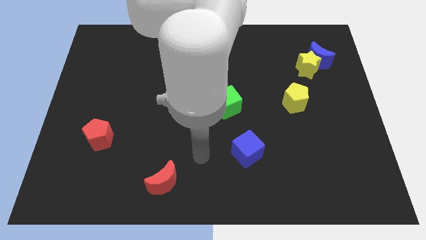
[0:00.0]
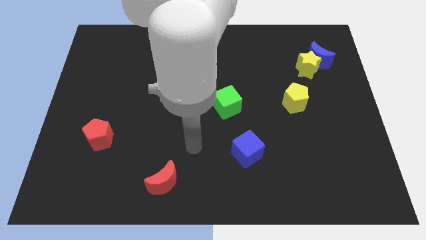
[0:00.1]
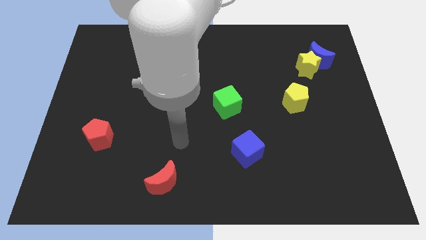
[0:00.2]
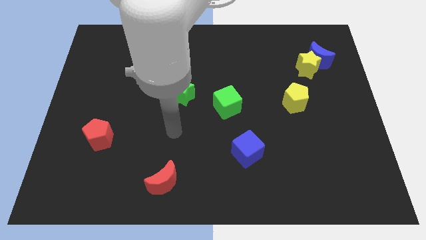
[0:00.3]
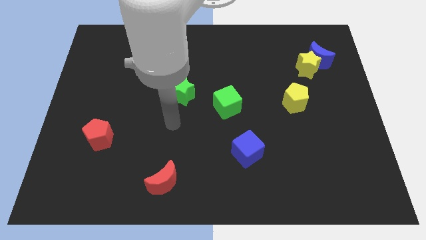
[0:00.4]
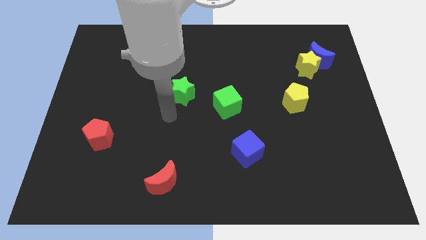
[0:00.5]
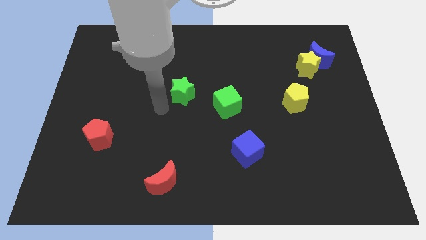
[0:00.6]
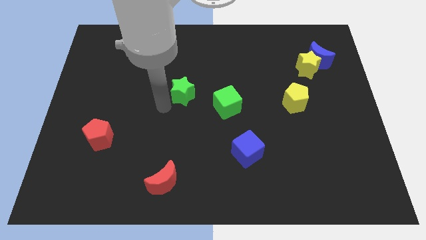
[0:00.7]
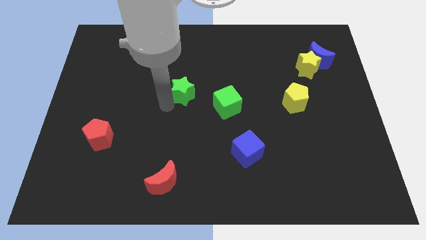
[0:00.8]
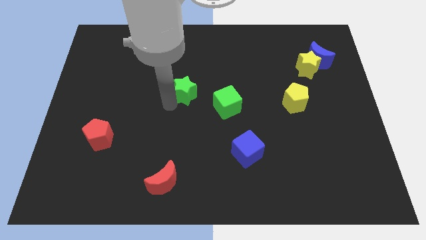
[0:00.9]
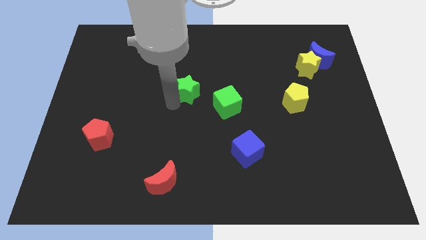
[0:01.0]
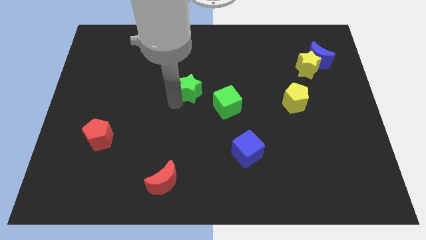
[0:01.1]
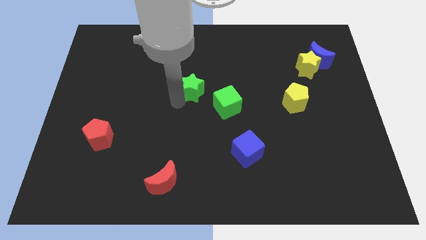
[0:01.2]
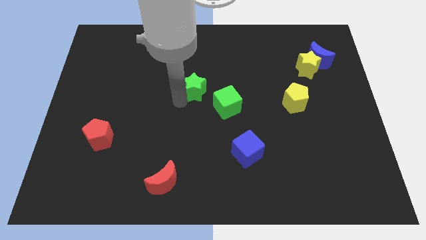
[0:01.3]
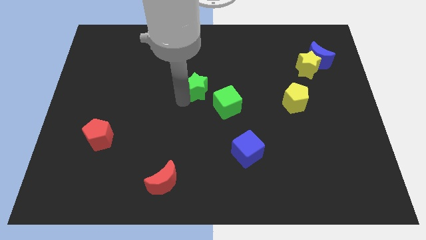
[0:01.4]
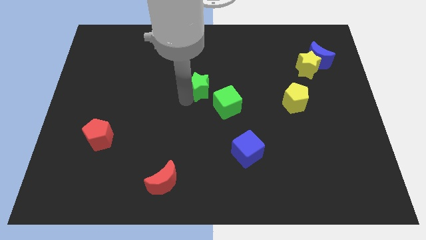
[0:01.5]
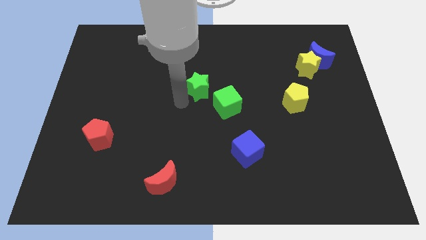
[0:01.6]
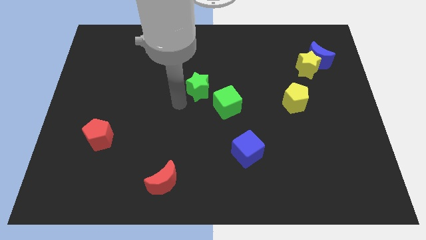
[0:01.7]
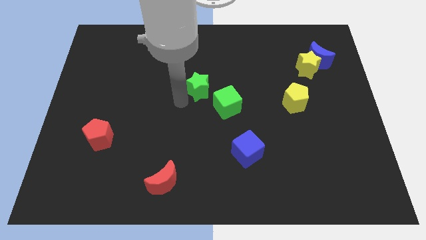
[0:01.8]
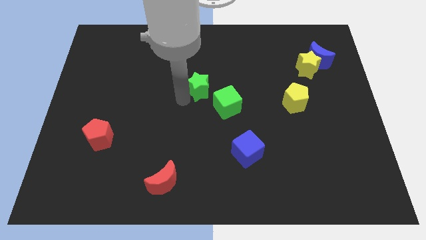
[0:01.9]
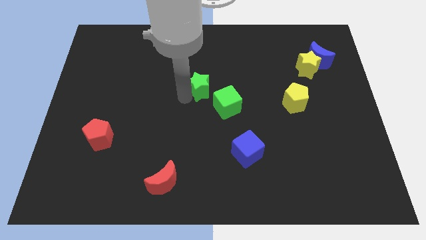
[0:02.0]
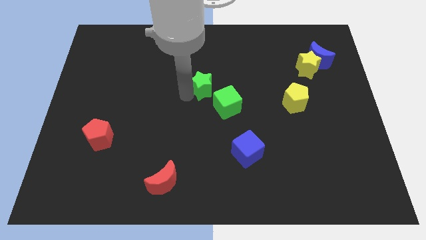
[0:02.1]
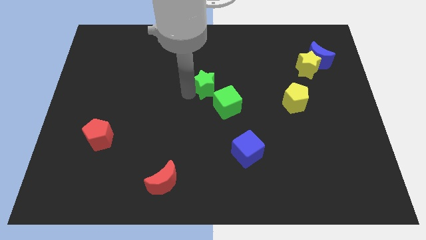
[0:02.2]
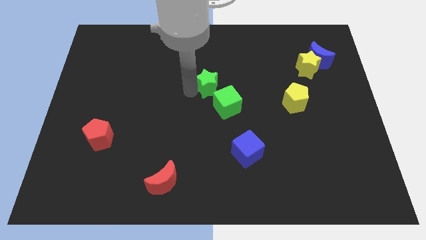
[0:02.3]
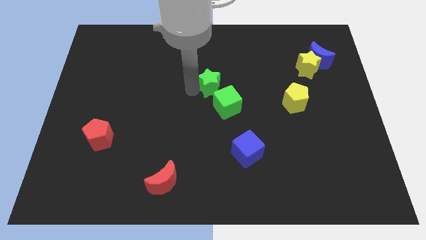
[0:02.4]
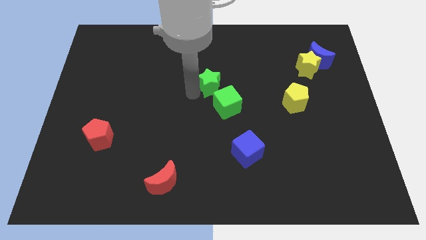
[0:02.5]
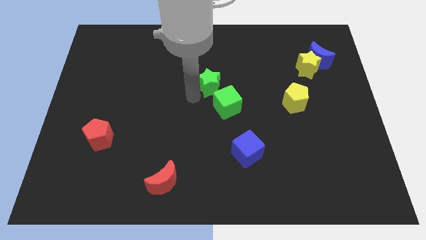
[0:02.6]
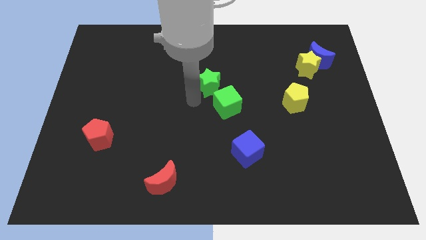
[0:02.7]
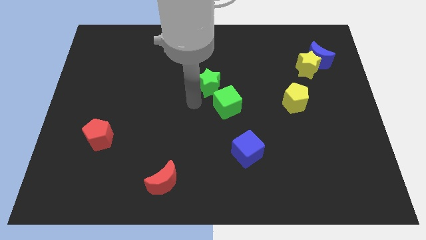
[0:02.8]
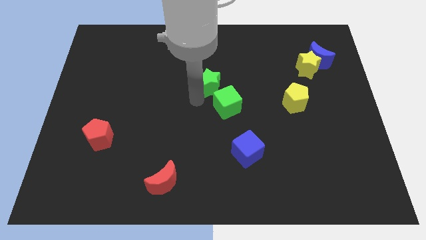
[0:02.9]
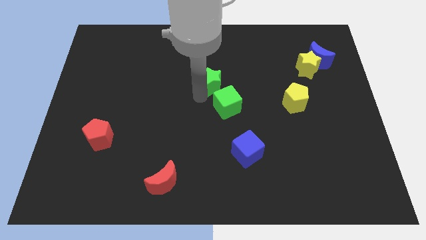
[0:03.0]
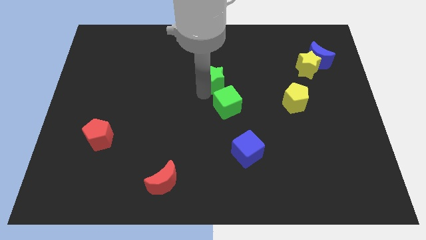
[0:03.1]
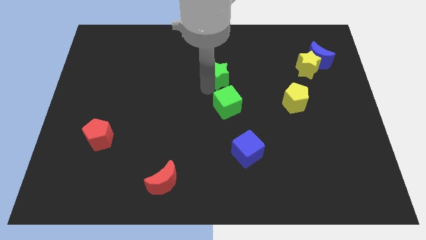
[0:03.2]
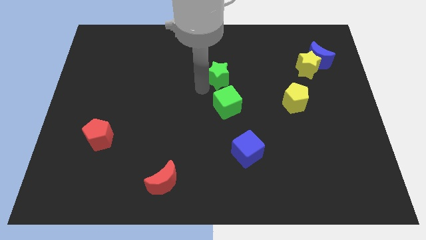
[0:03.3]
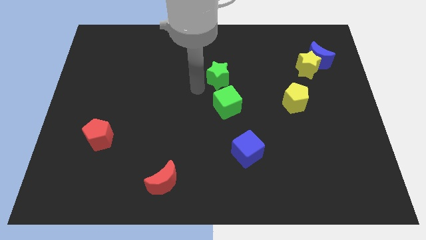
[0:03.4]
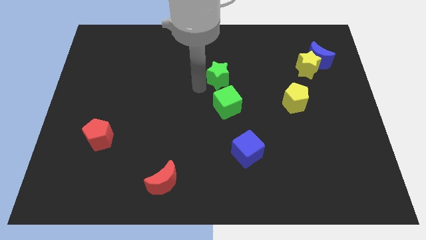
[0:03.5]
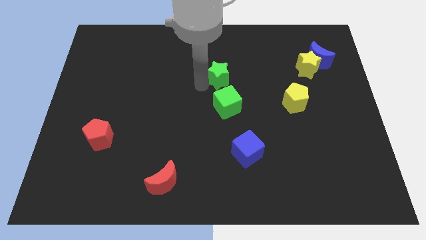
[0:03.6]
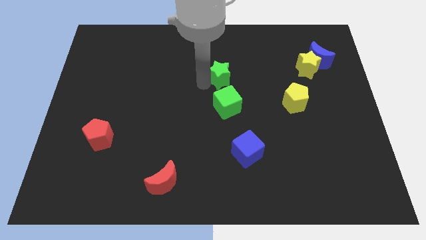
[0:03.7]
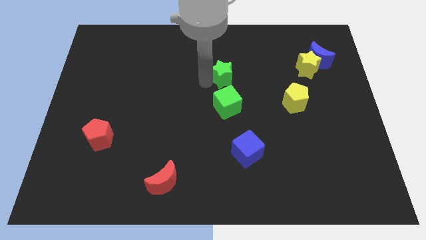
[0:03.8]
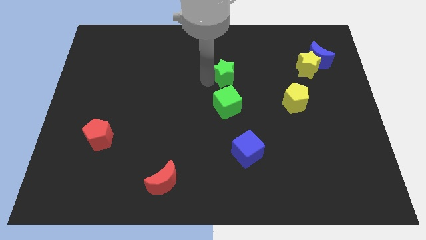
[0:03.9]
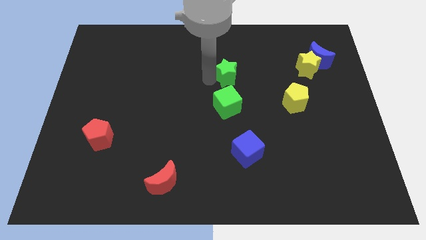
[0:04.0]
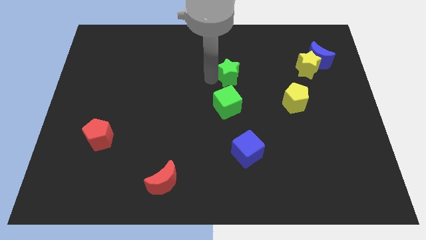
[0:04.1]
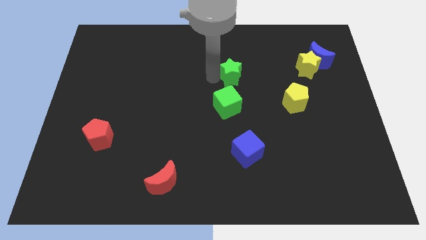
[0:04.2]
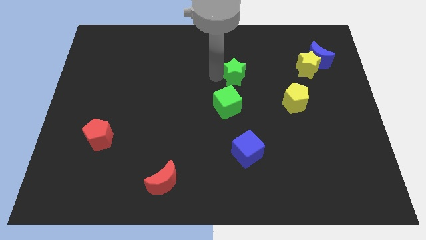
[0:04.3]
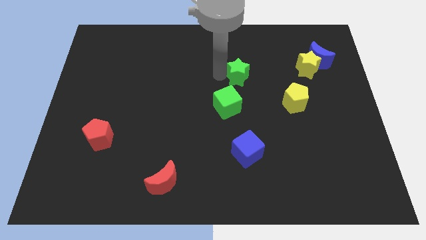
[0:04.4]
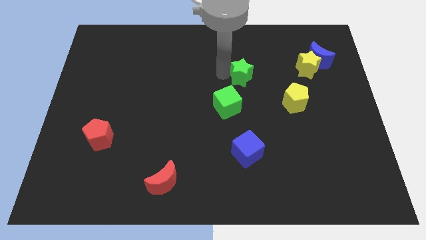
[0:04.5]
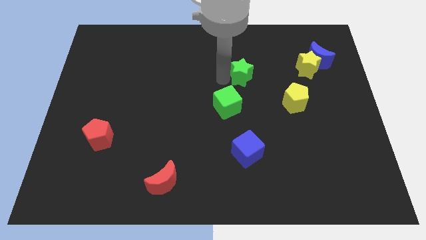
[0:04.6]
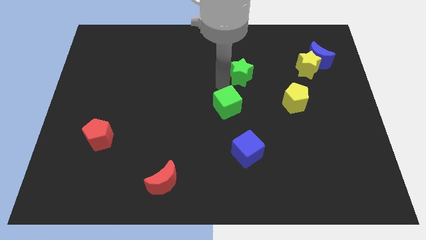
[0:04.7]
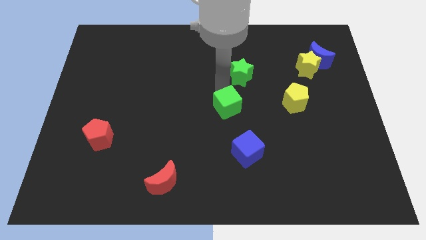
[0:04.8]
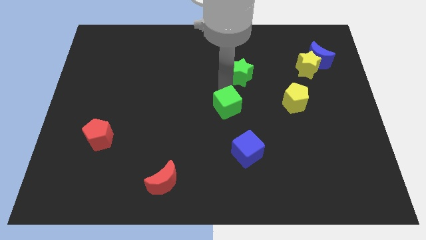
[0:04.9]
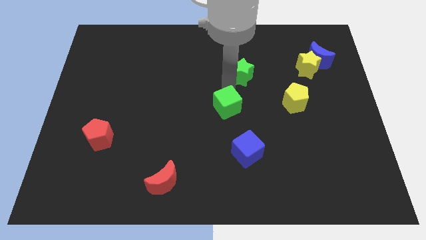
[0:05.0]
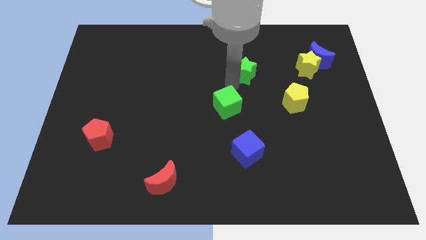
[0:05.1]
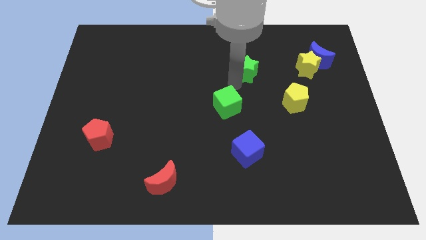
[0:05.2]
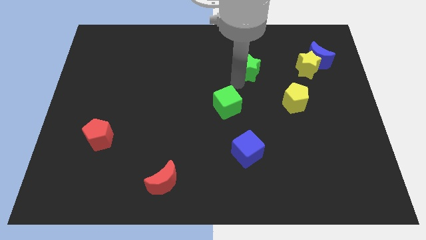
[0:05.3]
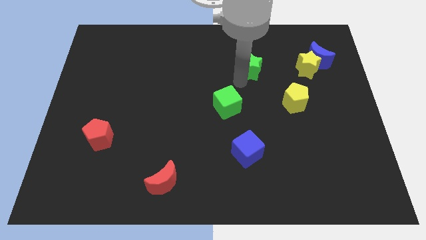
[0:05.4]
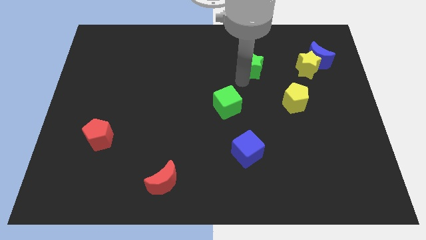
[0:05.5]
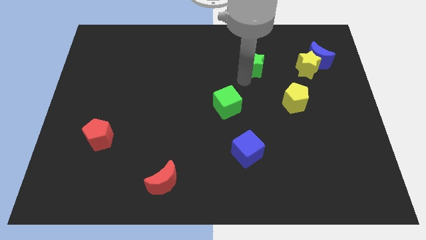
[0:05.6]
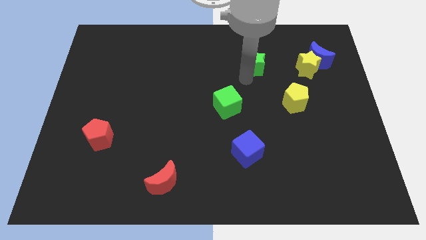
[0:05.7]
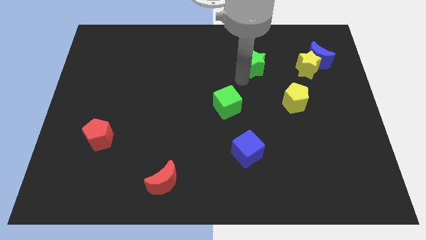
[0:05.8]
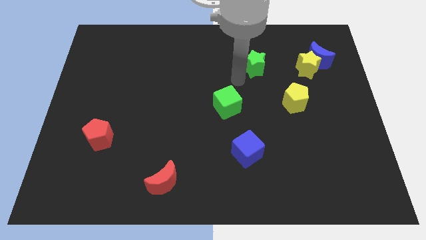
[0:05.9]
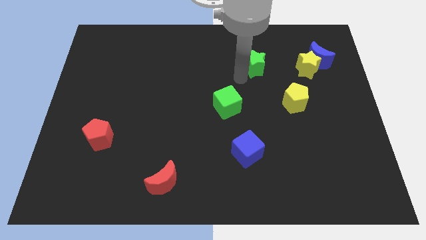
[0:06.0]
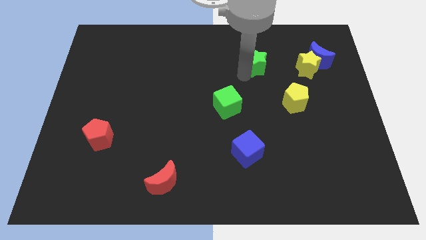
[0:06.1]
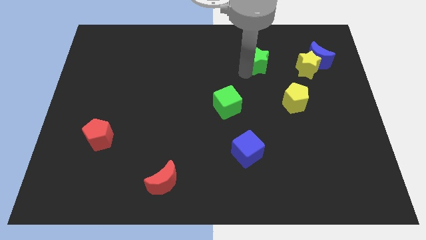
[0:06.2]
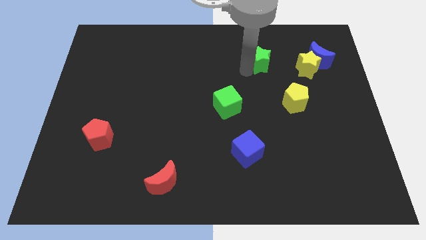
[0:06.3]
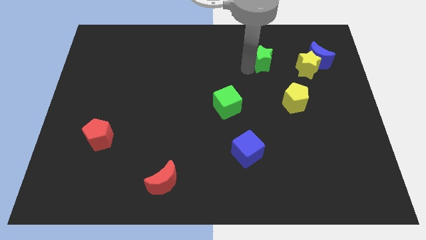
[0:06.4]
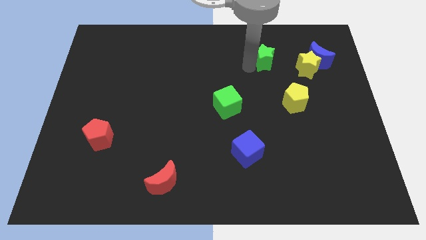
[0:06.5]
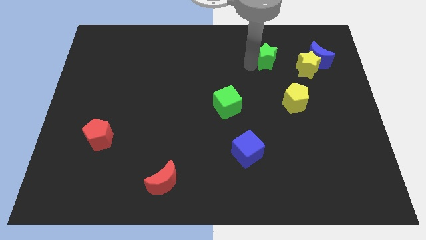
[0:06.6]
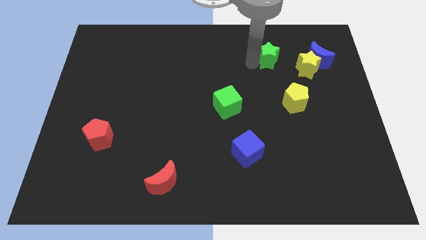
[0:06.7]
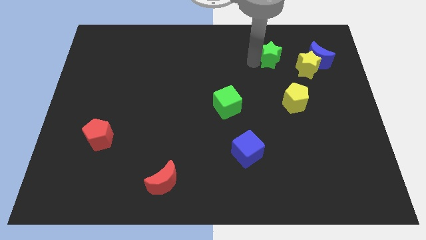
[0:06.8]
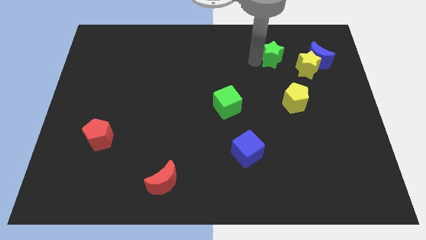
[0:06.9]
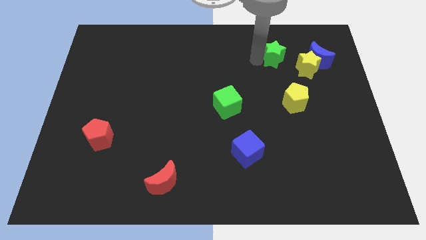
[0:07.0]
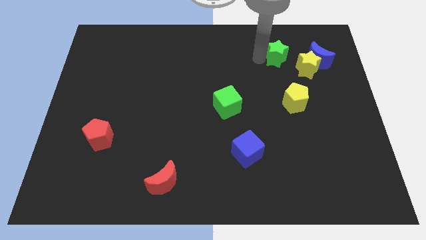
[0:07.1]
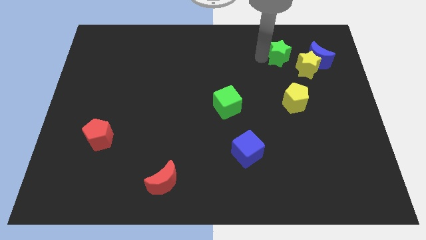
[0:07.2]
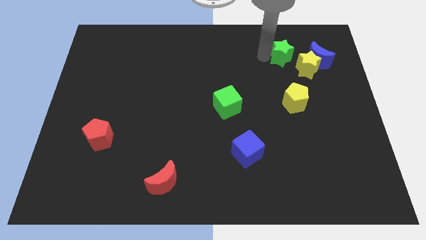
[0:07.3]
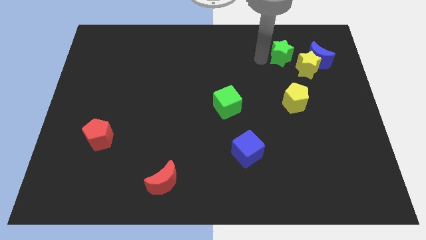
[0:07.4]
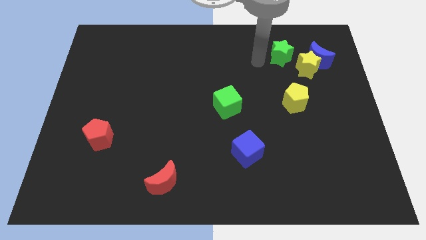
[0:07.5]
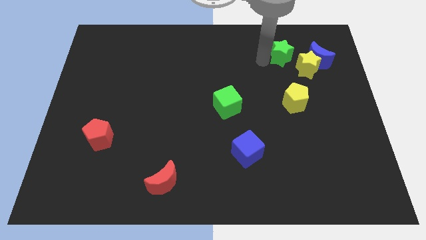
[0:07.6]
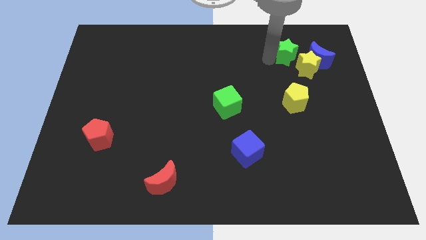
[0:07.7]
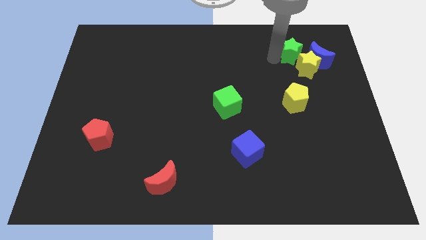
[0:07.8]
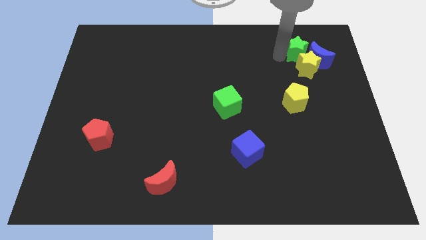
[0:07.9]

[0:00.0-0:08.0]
push the green star close to the blue moon
